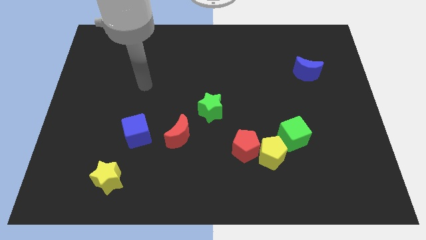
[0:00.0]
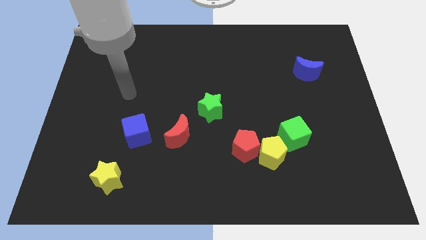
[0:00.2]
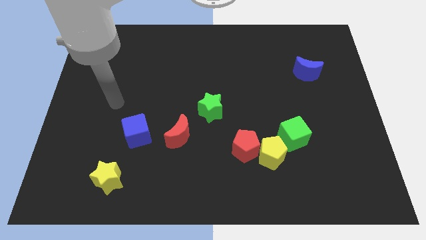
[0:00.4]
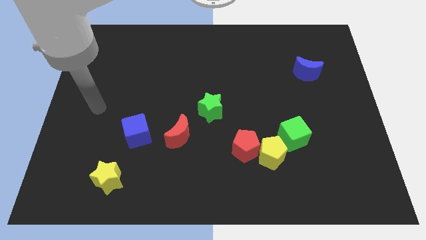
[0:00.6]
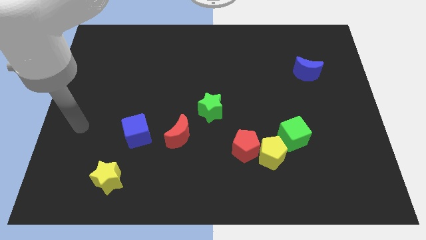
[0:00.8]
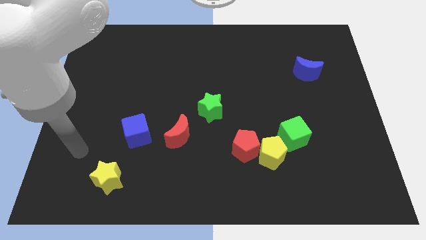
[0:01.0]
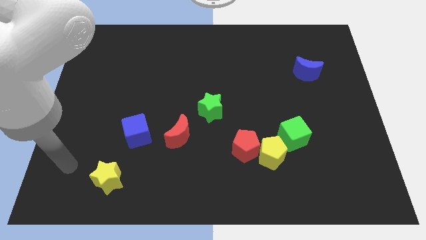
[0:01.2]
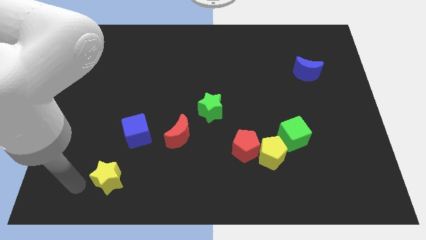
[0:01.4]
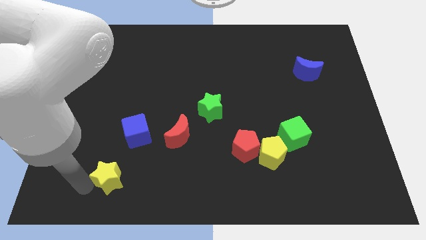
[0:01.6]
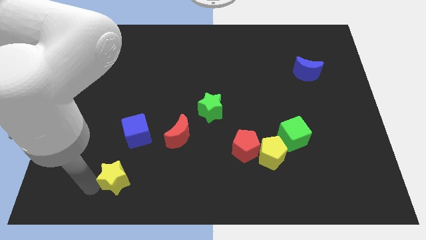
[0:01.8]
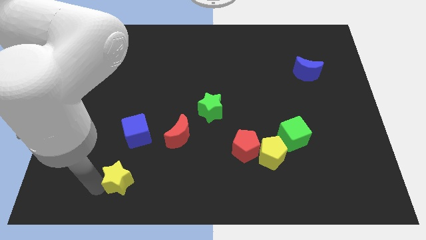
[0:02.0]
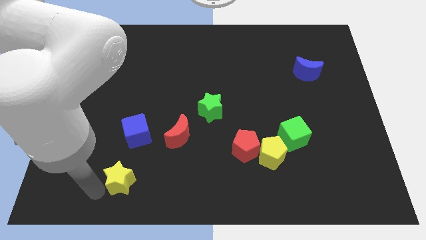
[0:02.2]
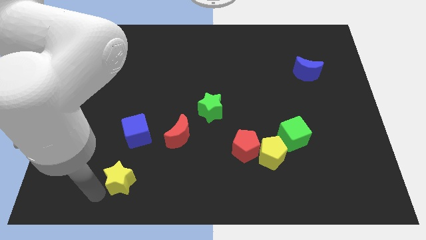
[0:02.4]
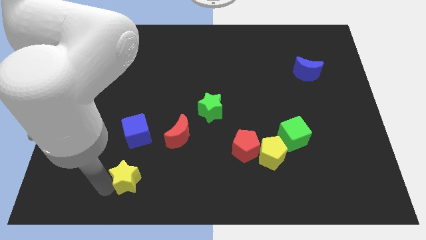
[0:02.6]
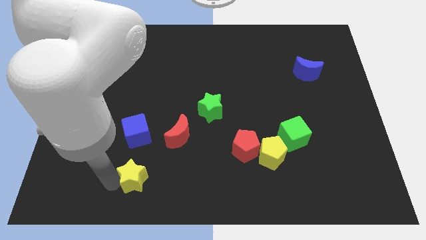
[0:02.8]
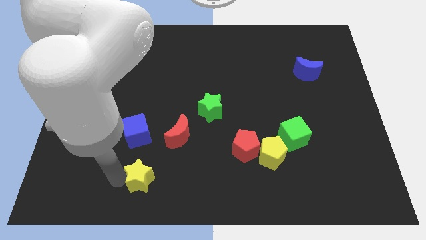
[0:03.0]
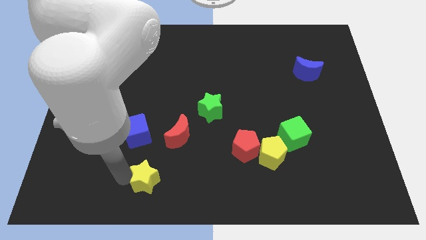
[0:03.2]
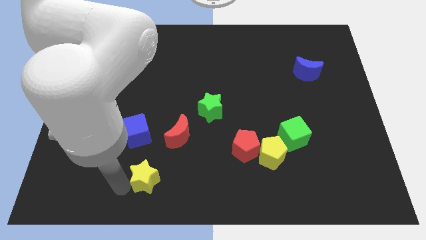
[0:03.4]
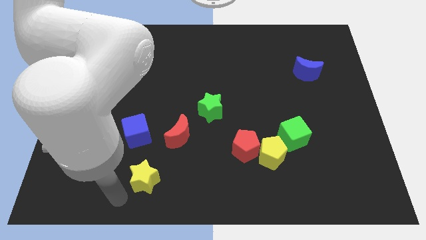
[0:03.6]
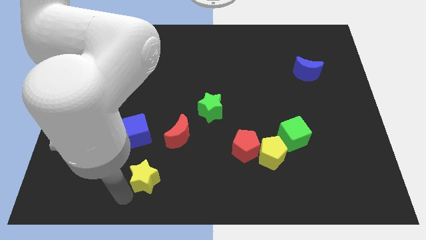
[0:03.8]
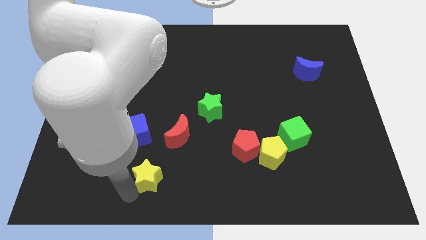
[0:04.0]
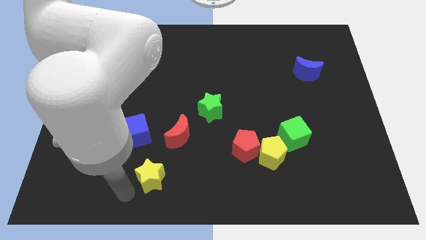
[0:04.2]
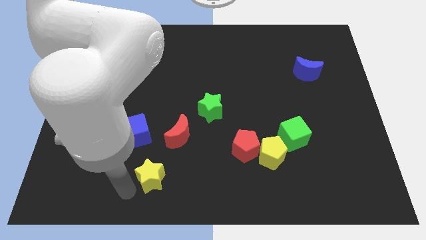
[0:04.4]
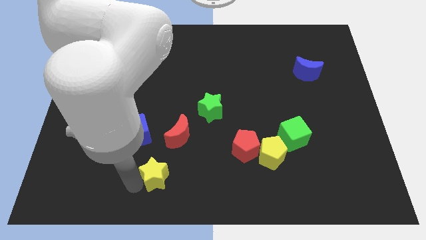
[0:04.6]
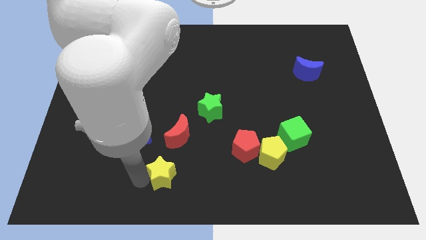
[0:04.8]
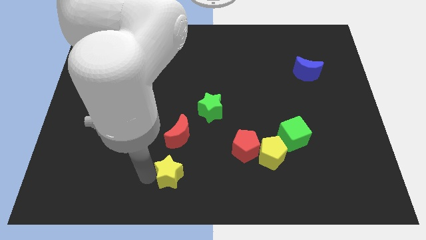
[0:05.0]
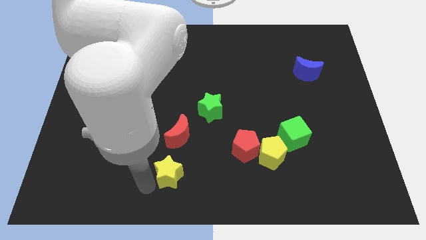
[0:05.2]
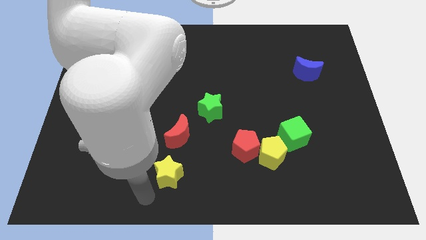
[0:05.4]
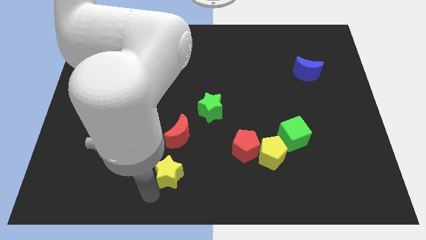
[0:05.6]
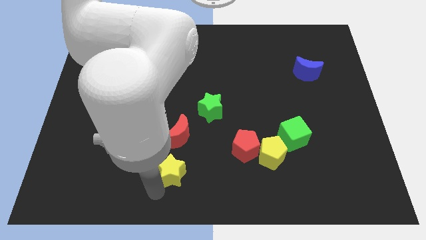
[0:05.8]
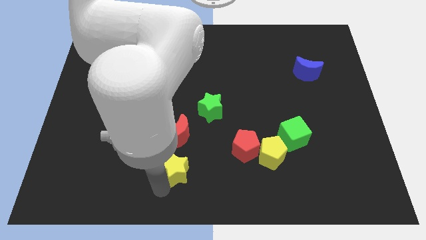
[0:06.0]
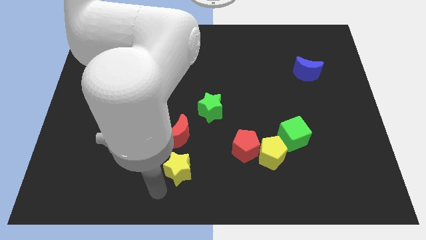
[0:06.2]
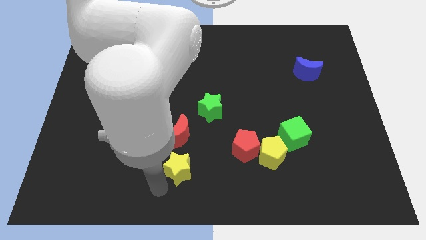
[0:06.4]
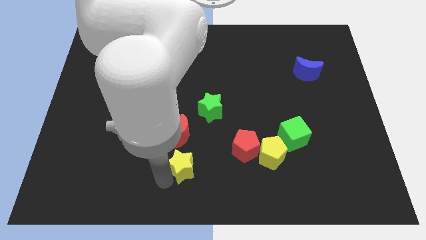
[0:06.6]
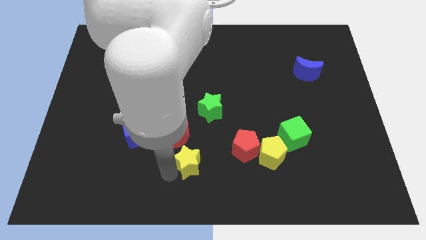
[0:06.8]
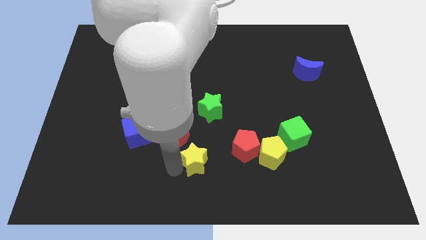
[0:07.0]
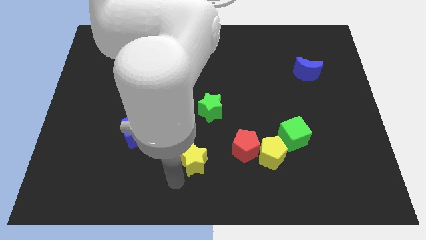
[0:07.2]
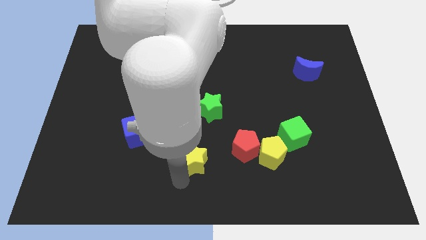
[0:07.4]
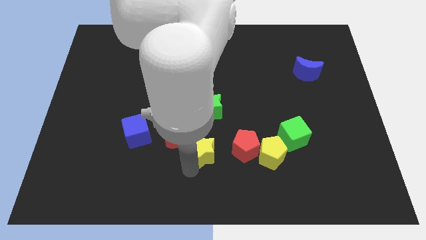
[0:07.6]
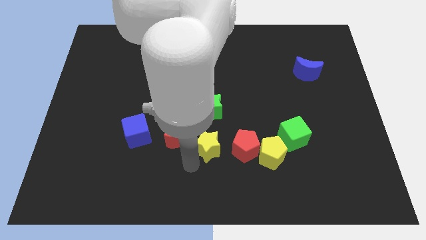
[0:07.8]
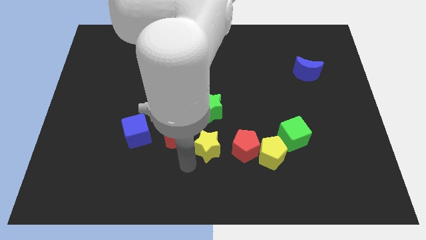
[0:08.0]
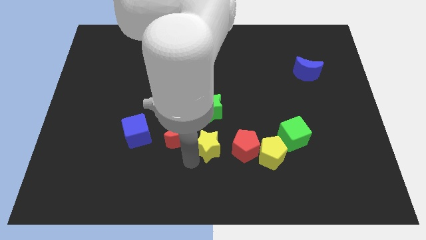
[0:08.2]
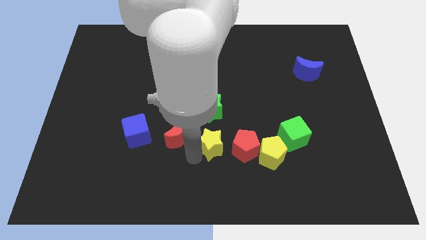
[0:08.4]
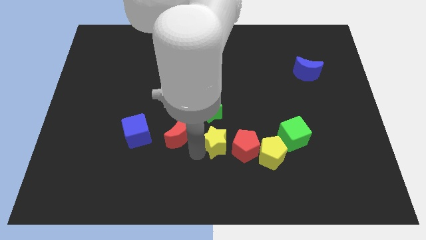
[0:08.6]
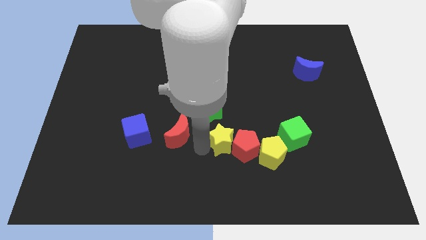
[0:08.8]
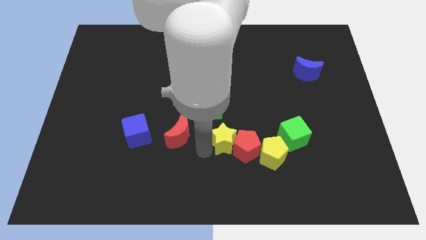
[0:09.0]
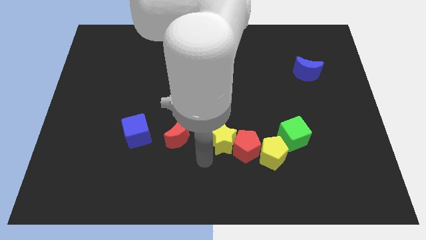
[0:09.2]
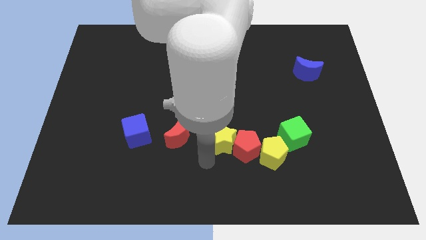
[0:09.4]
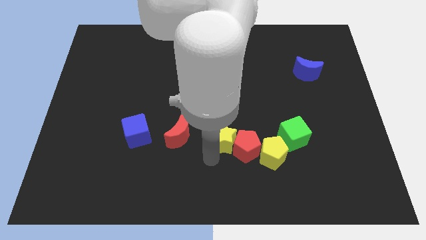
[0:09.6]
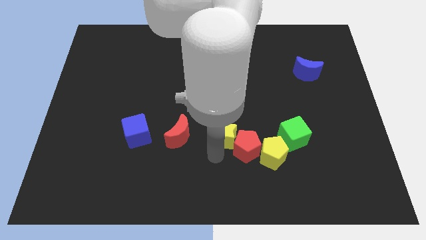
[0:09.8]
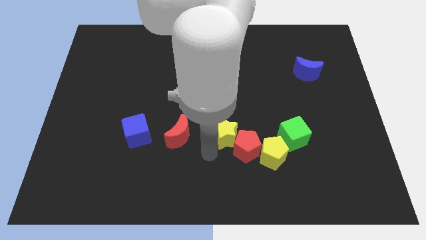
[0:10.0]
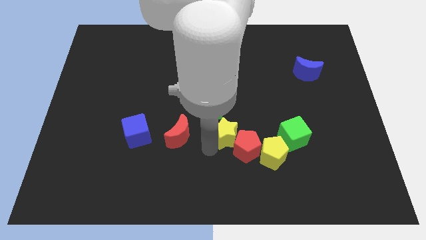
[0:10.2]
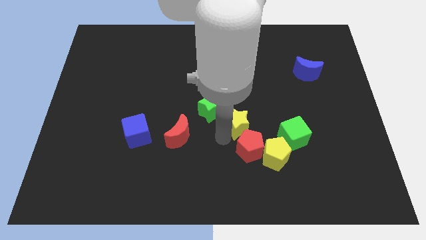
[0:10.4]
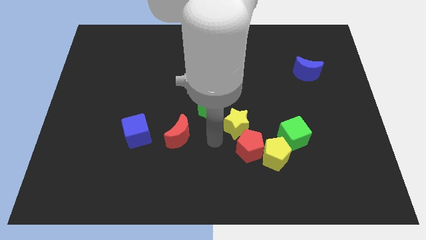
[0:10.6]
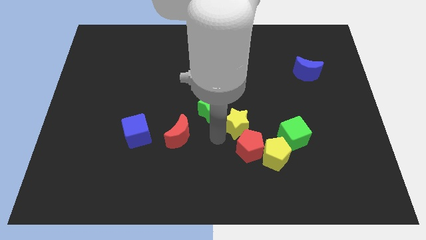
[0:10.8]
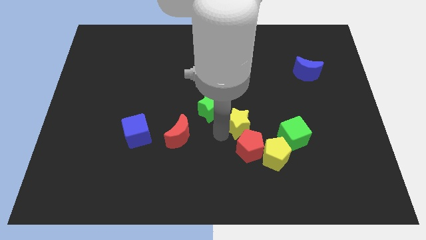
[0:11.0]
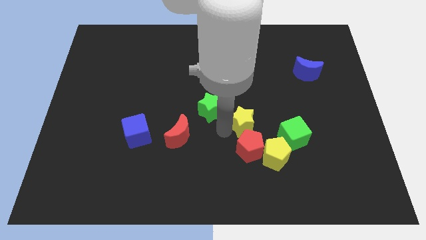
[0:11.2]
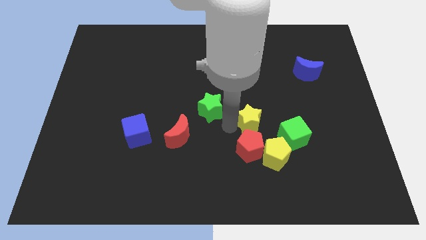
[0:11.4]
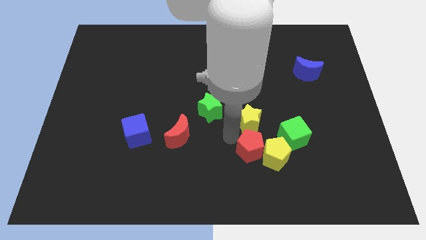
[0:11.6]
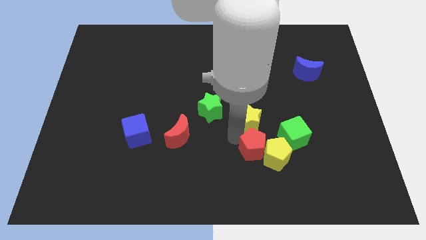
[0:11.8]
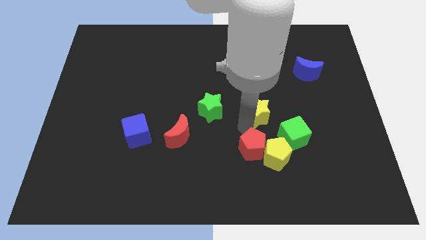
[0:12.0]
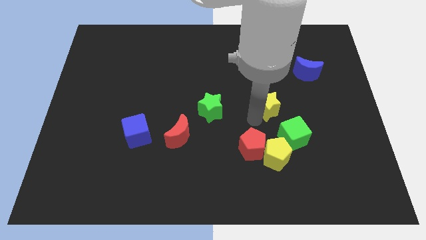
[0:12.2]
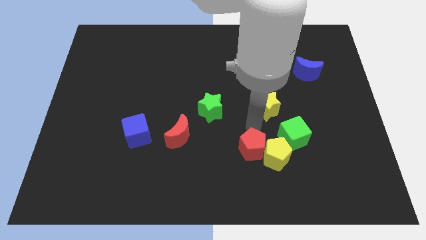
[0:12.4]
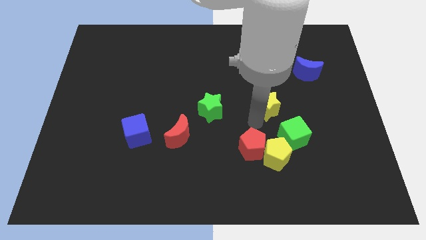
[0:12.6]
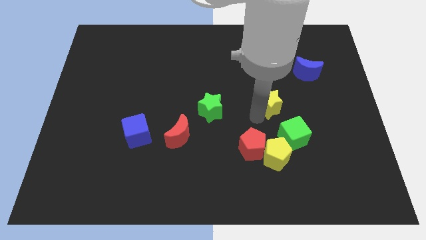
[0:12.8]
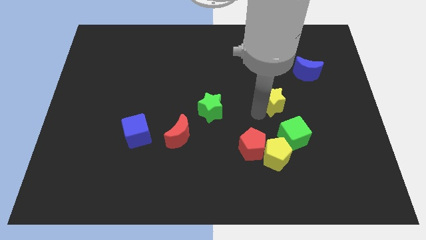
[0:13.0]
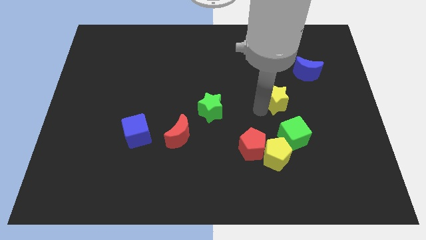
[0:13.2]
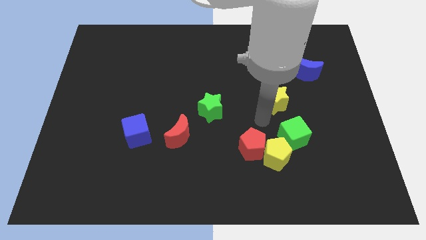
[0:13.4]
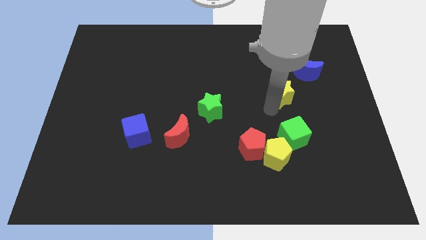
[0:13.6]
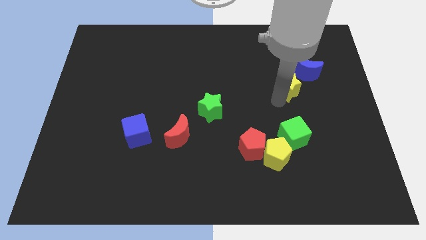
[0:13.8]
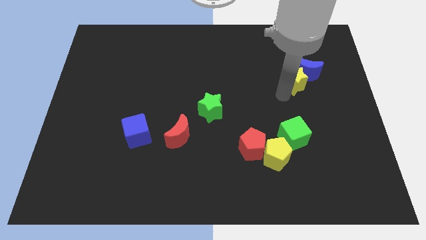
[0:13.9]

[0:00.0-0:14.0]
put the yellow star towards the blue moon
